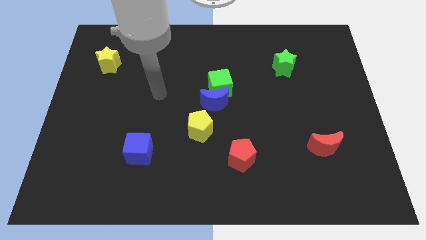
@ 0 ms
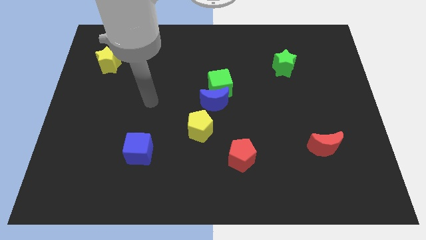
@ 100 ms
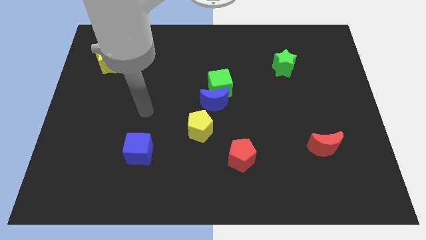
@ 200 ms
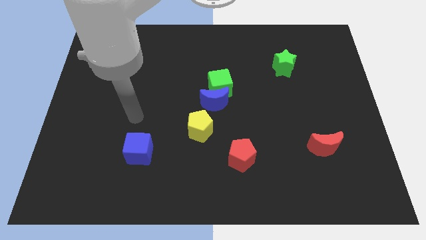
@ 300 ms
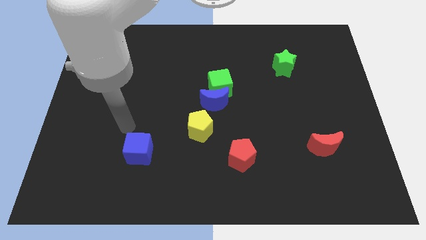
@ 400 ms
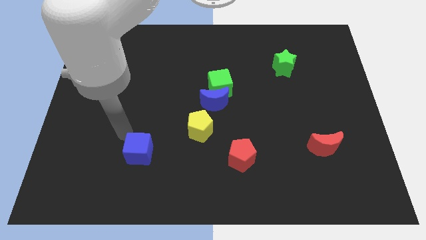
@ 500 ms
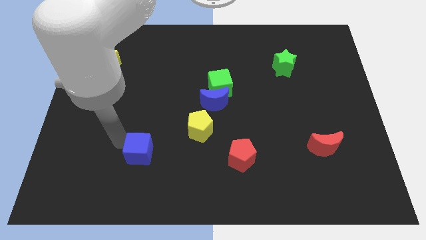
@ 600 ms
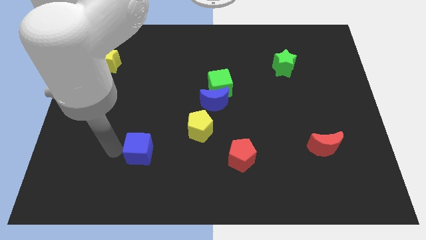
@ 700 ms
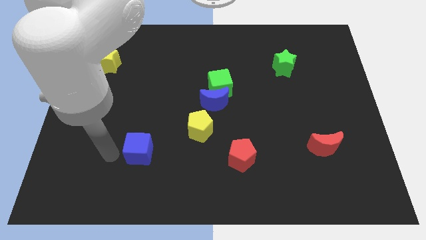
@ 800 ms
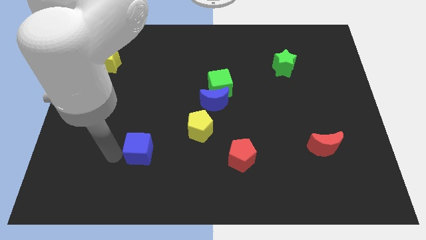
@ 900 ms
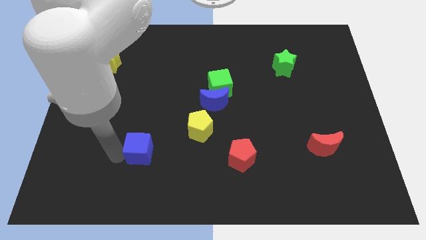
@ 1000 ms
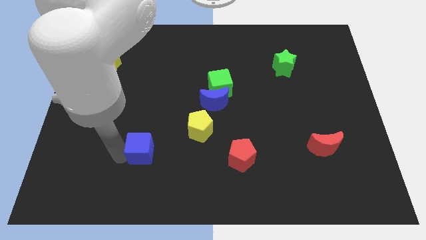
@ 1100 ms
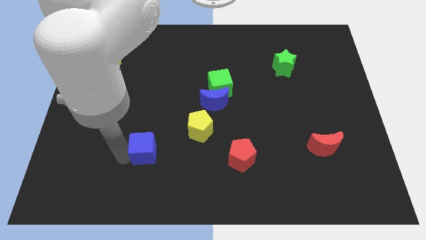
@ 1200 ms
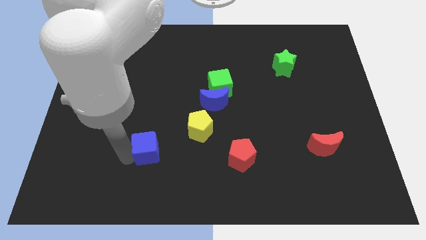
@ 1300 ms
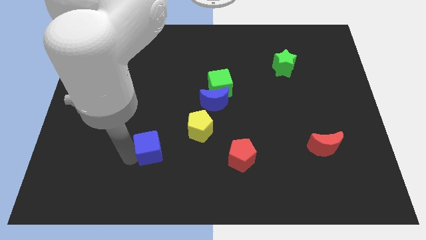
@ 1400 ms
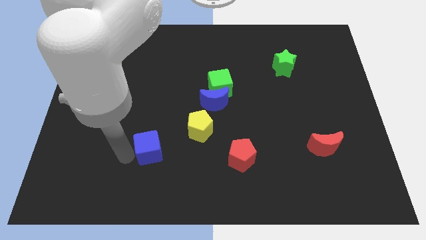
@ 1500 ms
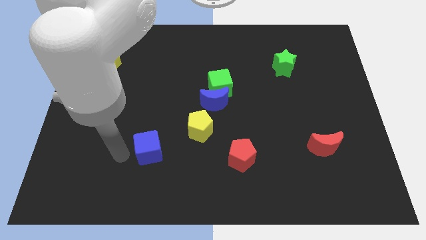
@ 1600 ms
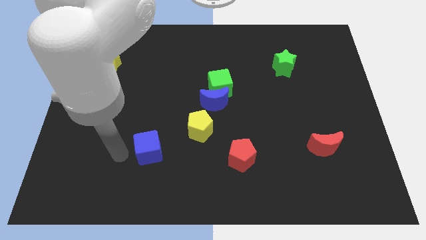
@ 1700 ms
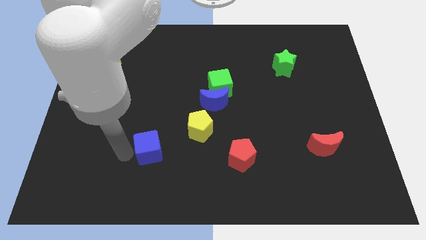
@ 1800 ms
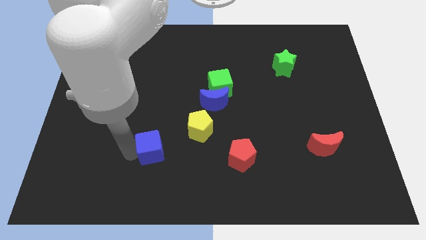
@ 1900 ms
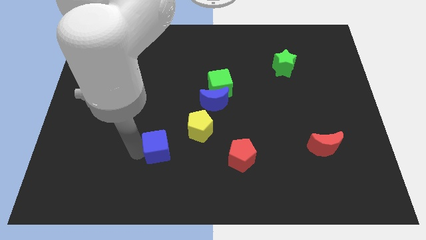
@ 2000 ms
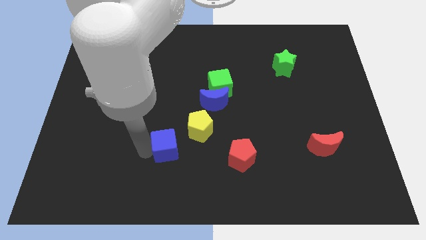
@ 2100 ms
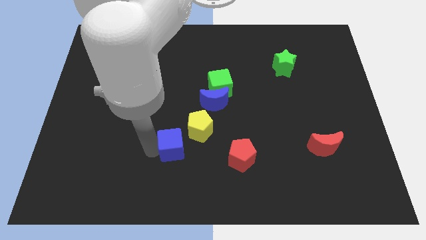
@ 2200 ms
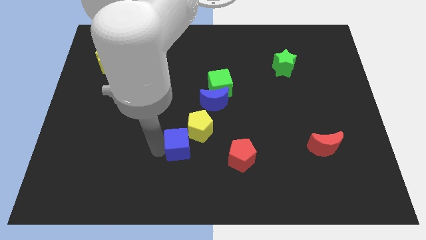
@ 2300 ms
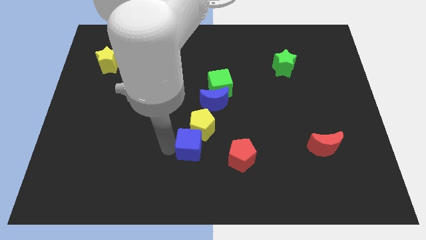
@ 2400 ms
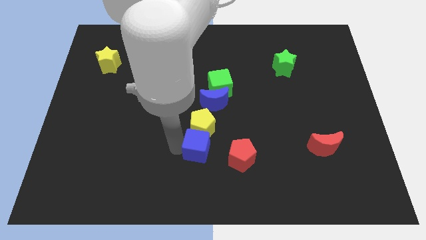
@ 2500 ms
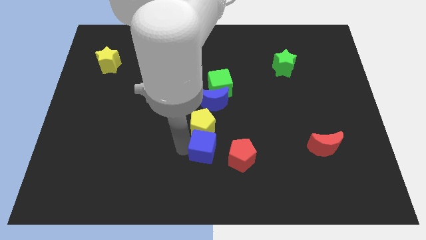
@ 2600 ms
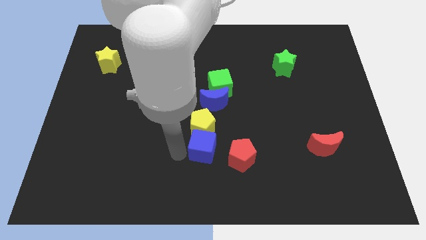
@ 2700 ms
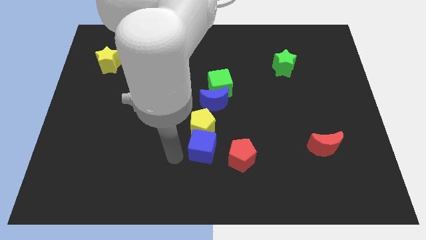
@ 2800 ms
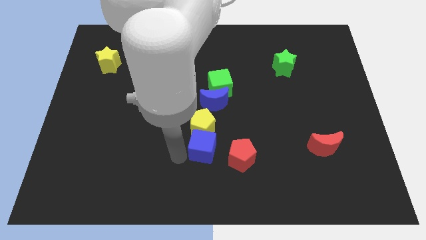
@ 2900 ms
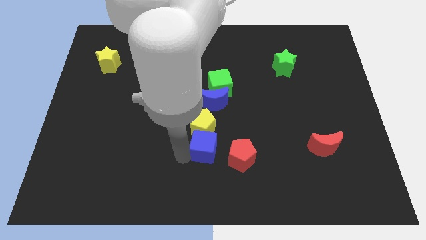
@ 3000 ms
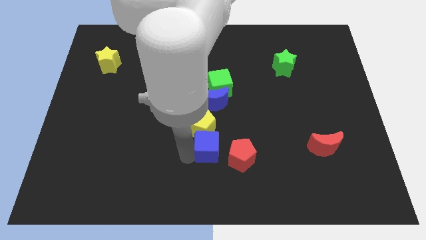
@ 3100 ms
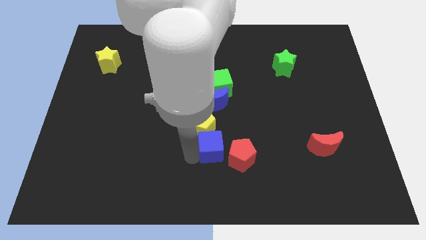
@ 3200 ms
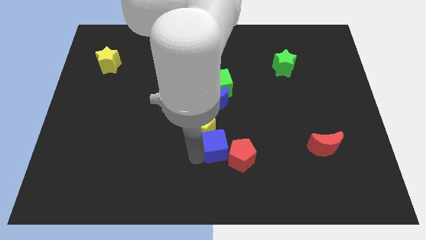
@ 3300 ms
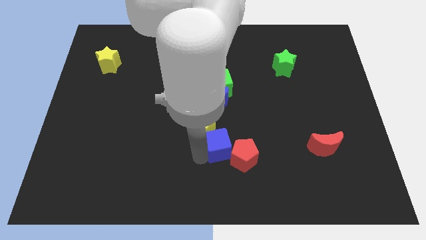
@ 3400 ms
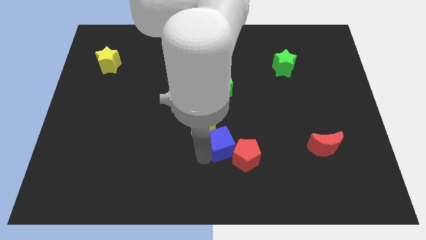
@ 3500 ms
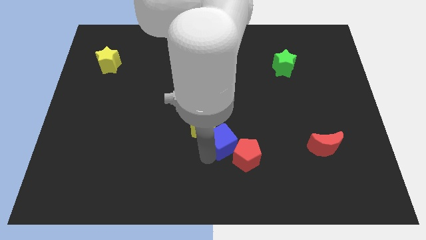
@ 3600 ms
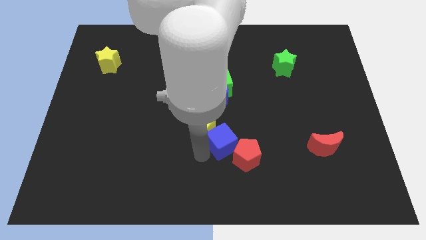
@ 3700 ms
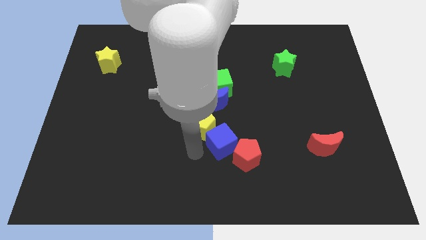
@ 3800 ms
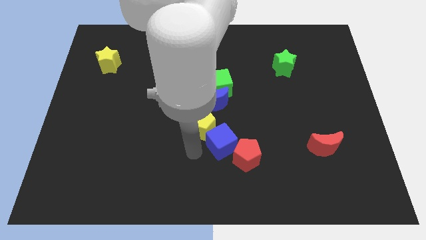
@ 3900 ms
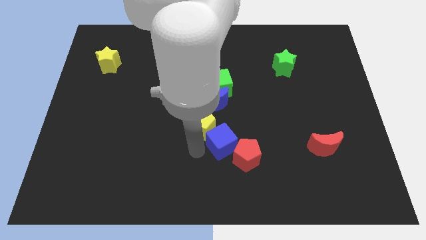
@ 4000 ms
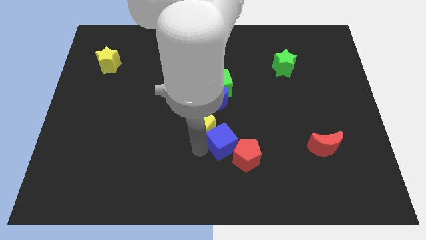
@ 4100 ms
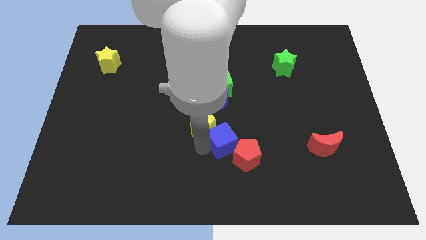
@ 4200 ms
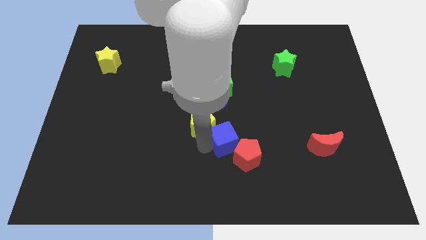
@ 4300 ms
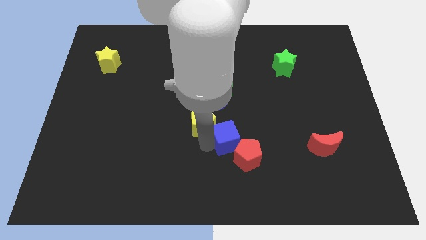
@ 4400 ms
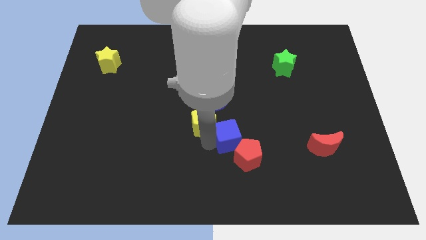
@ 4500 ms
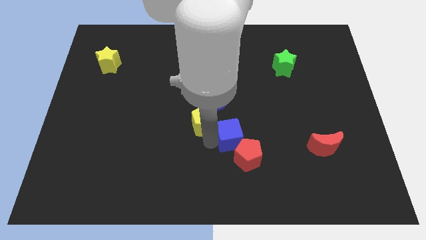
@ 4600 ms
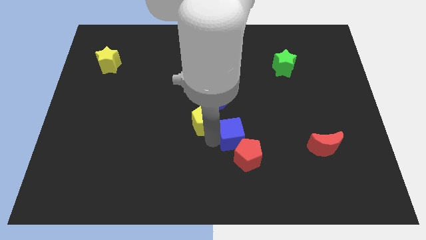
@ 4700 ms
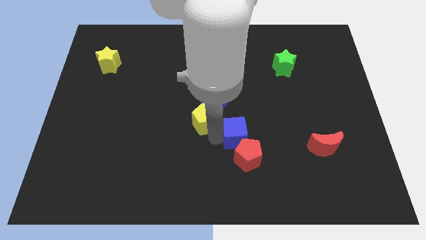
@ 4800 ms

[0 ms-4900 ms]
move the blue cube to the right

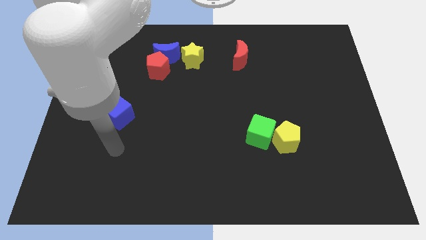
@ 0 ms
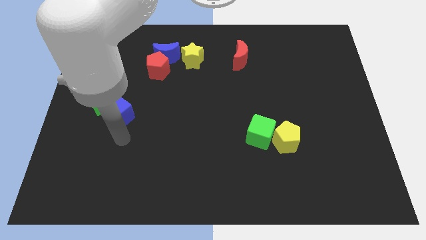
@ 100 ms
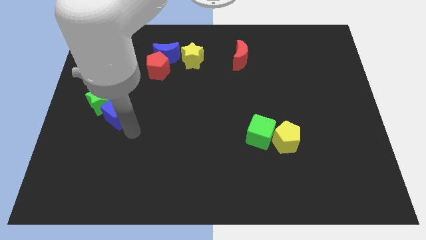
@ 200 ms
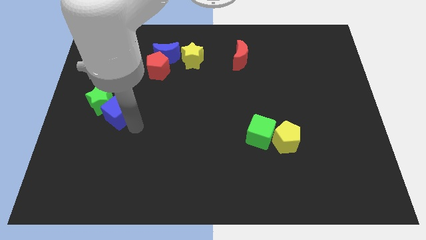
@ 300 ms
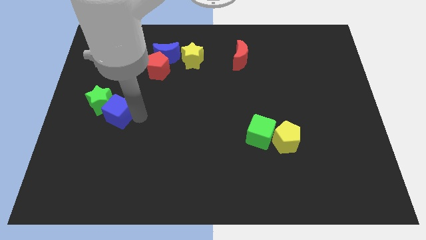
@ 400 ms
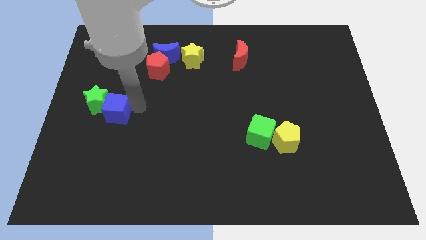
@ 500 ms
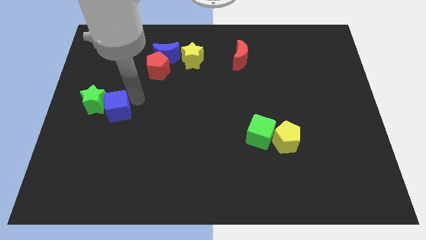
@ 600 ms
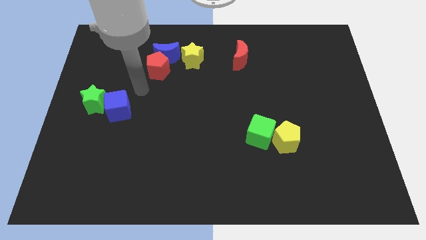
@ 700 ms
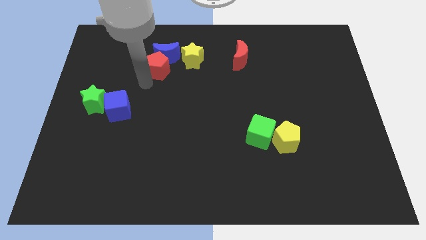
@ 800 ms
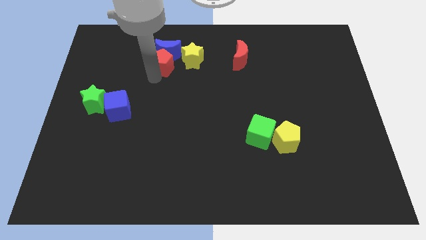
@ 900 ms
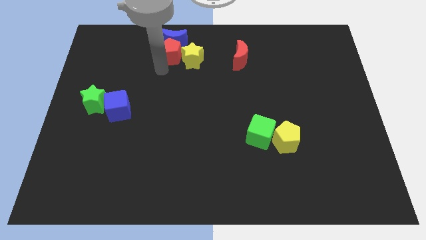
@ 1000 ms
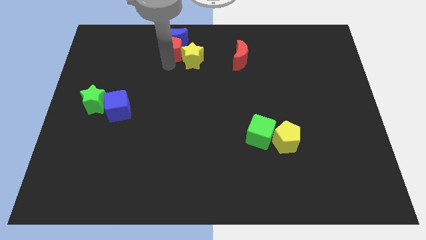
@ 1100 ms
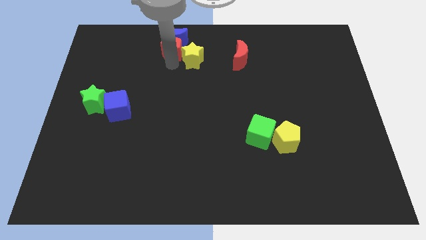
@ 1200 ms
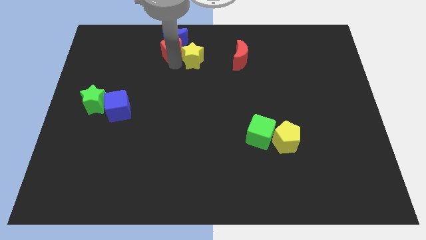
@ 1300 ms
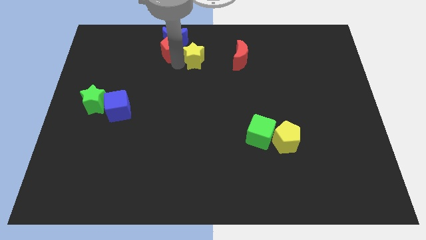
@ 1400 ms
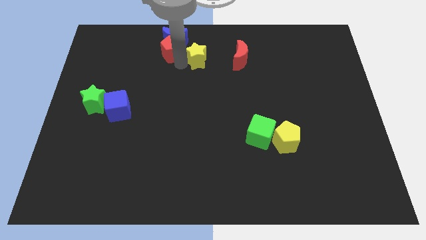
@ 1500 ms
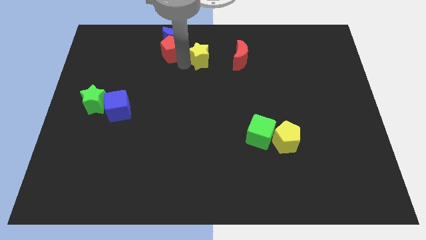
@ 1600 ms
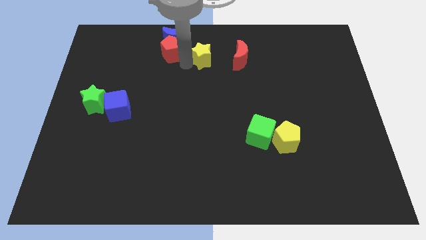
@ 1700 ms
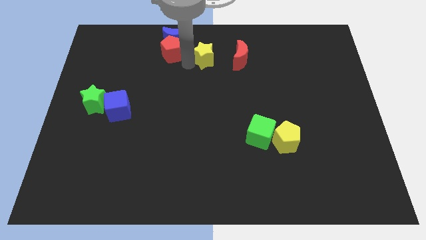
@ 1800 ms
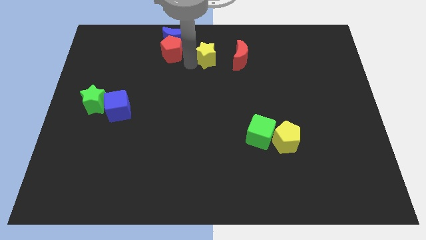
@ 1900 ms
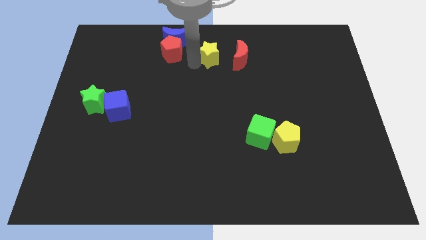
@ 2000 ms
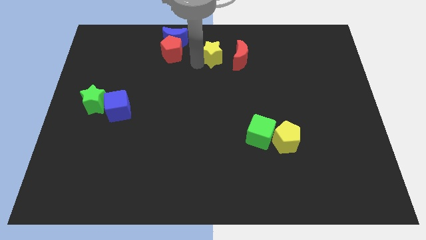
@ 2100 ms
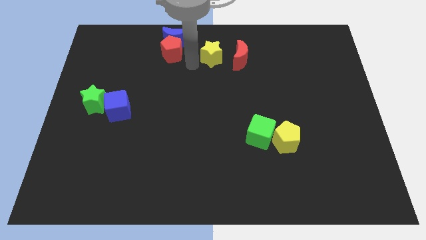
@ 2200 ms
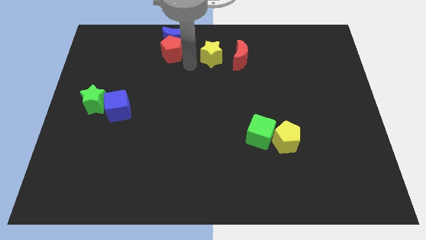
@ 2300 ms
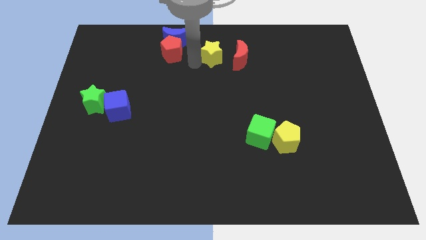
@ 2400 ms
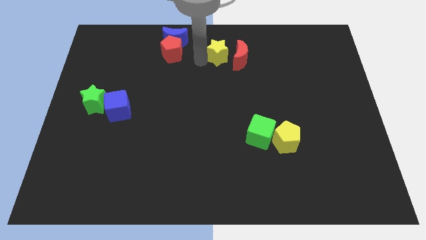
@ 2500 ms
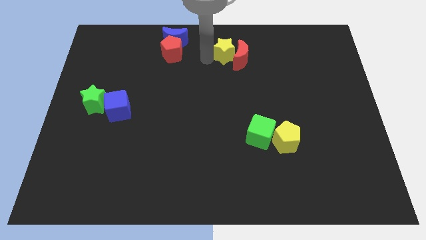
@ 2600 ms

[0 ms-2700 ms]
slide the yellow star somewhat right

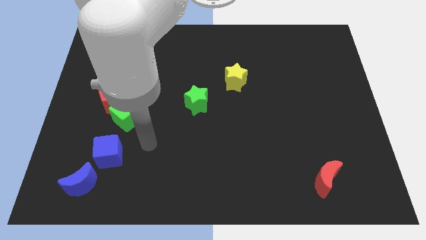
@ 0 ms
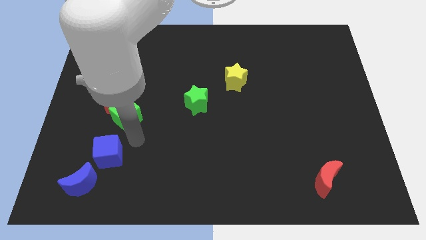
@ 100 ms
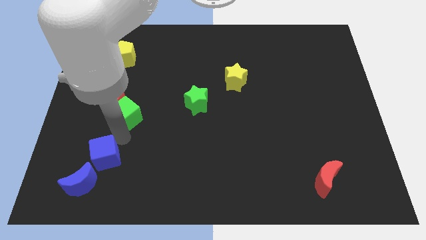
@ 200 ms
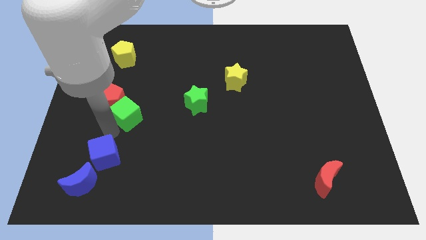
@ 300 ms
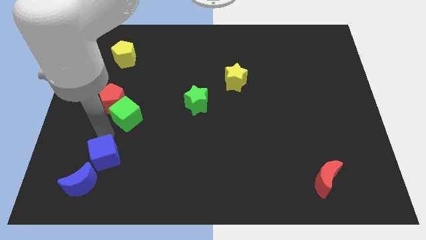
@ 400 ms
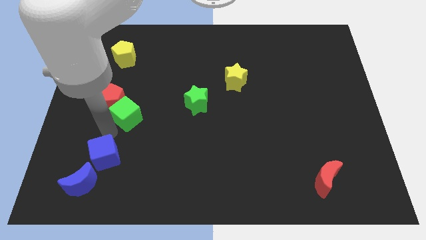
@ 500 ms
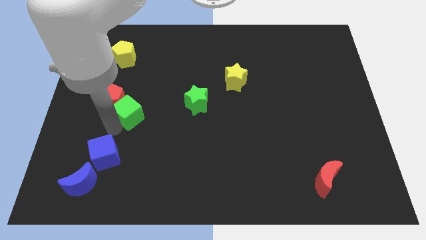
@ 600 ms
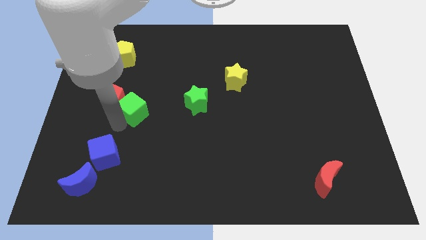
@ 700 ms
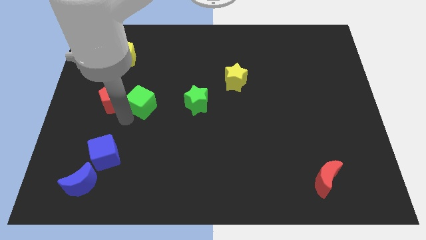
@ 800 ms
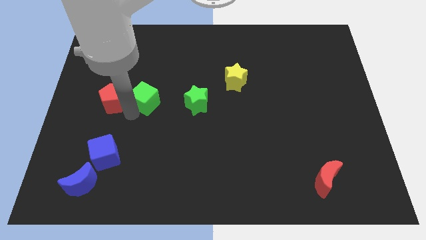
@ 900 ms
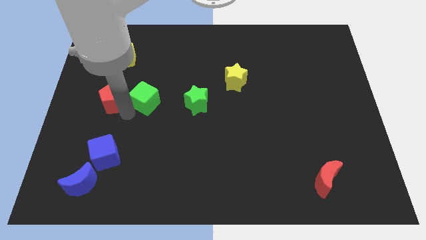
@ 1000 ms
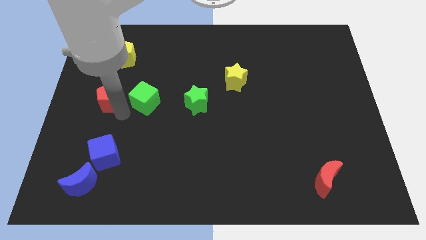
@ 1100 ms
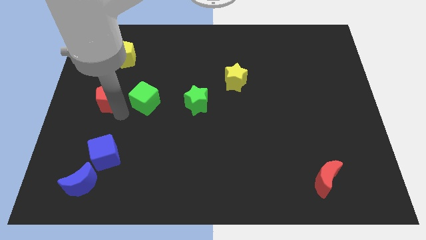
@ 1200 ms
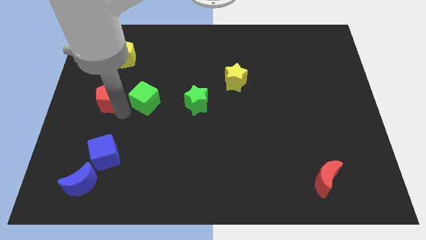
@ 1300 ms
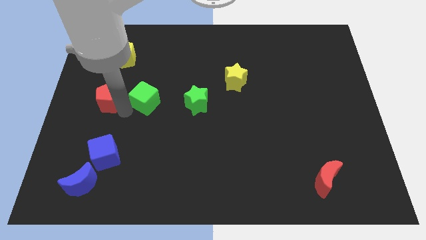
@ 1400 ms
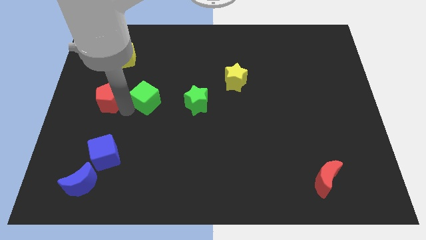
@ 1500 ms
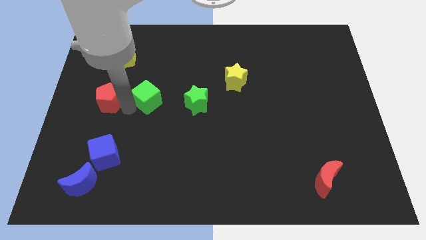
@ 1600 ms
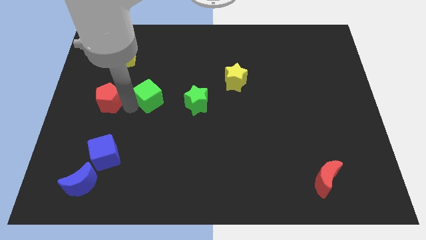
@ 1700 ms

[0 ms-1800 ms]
slide the green cube a bit up and right
